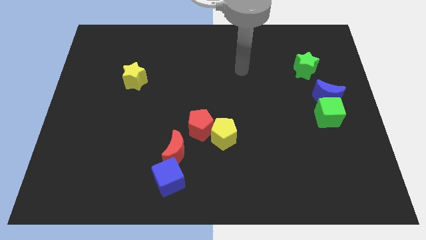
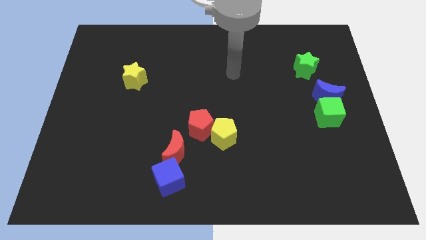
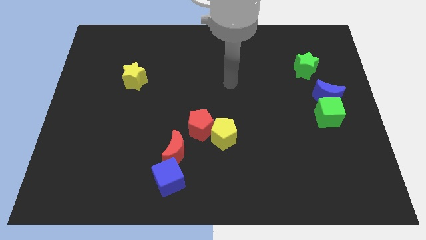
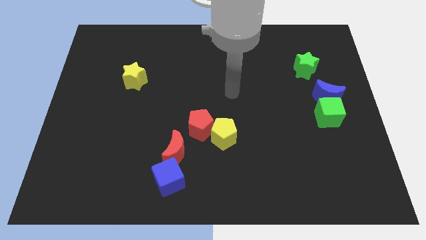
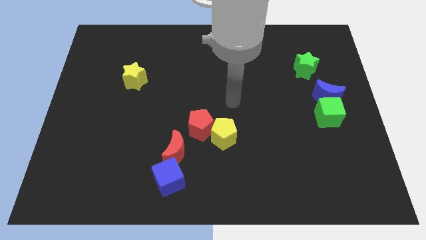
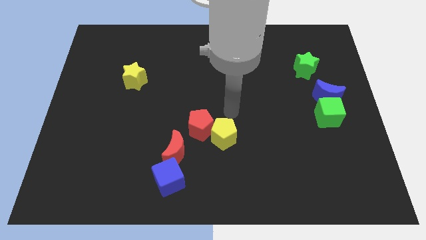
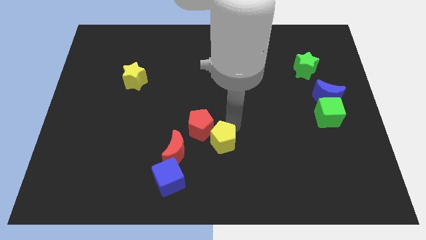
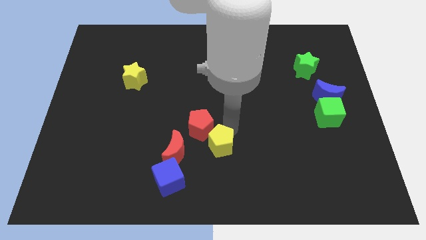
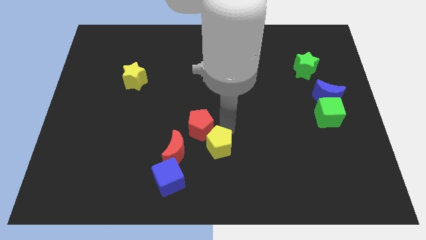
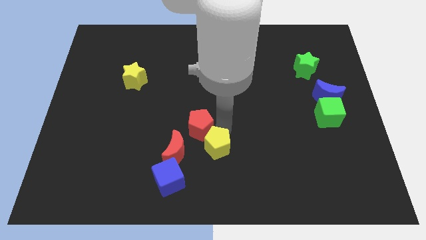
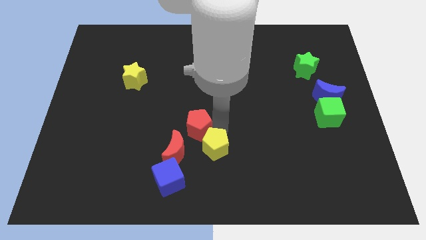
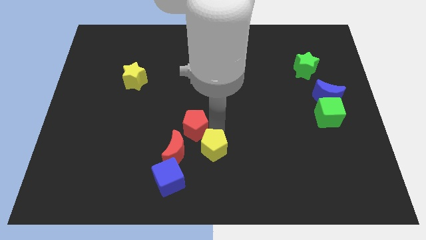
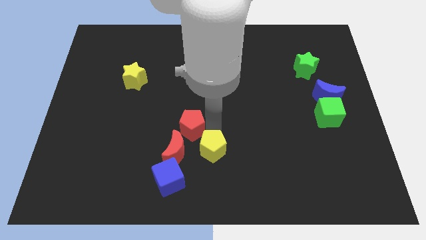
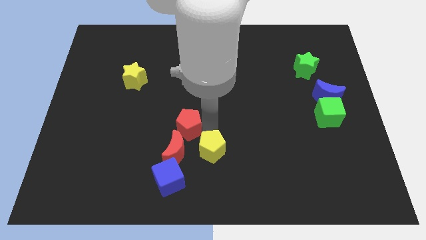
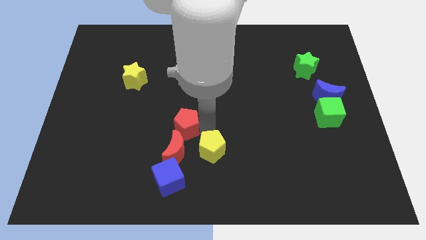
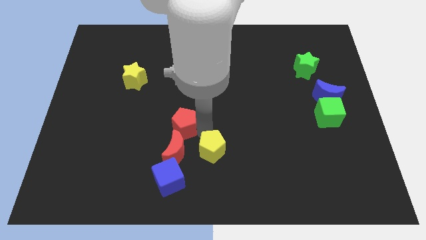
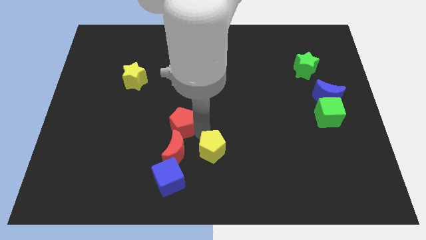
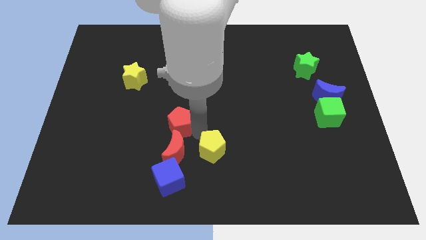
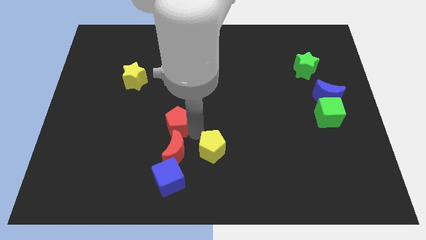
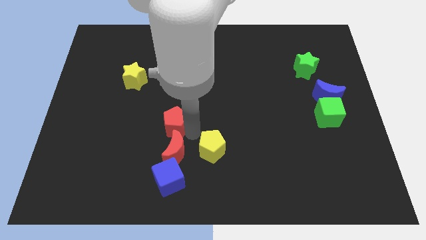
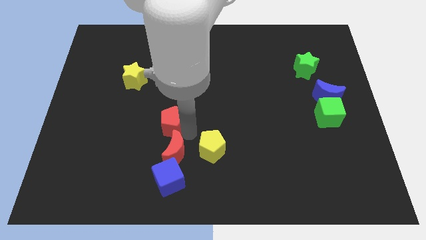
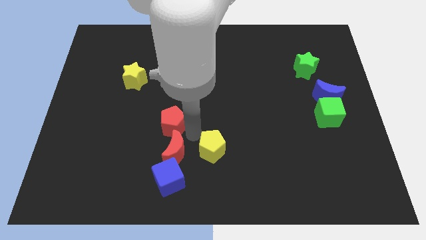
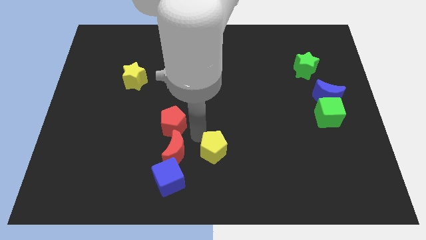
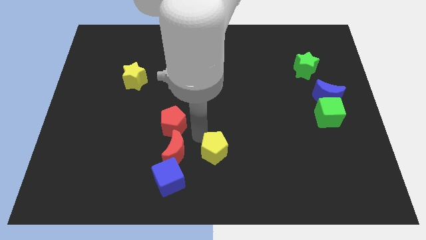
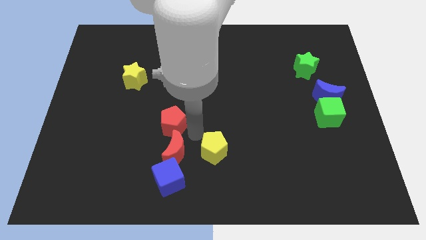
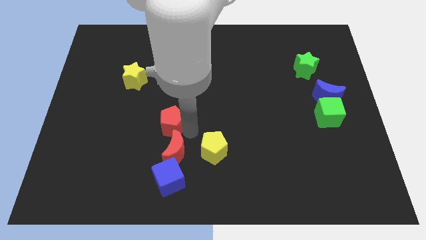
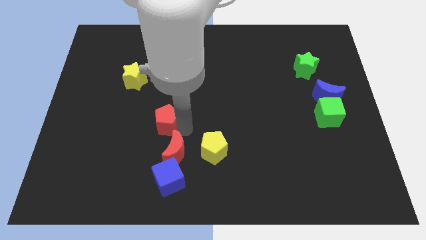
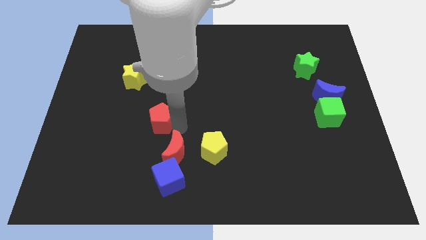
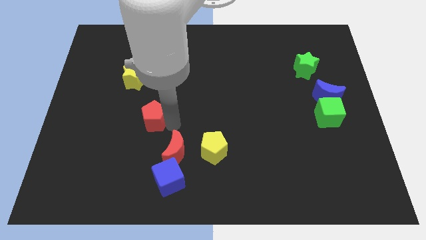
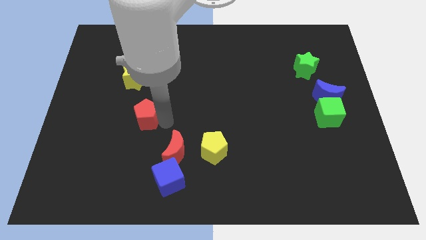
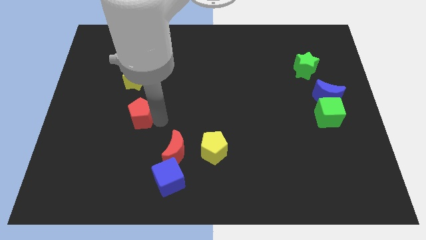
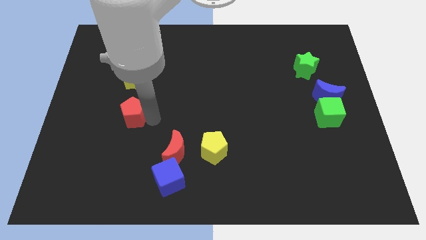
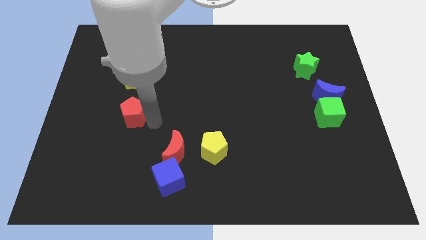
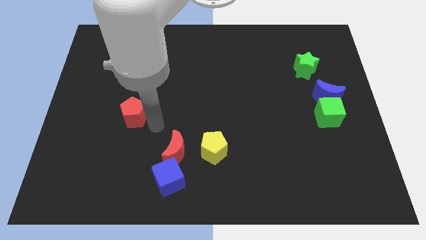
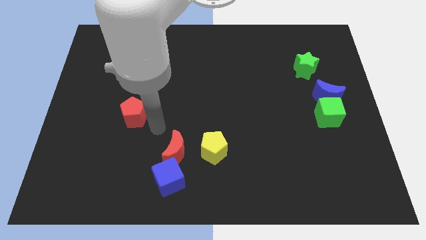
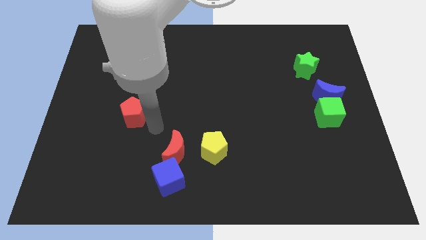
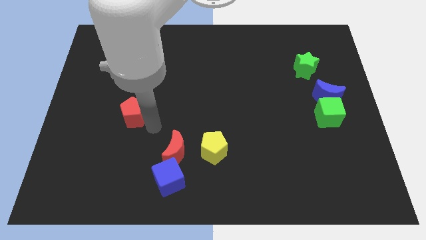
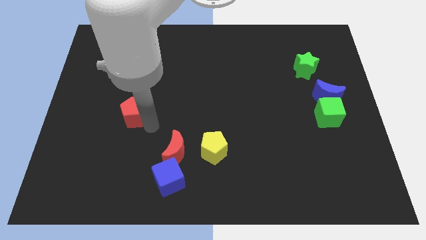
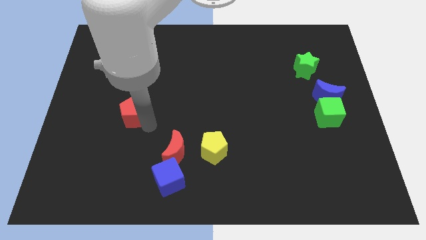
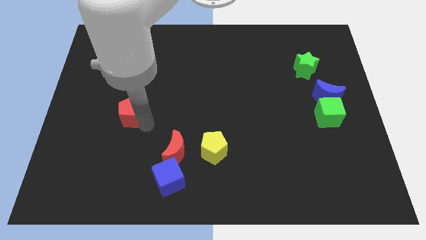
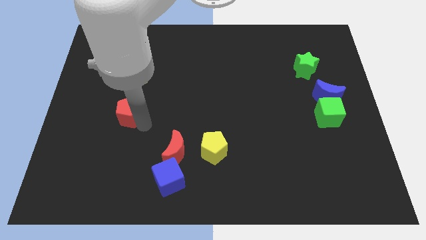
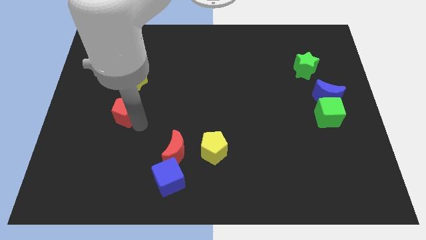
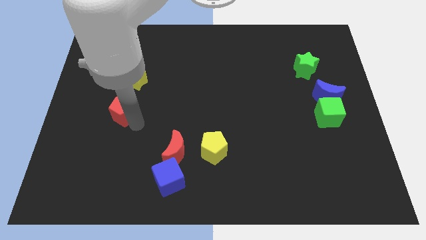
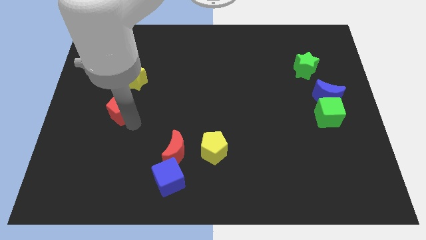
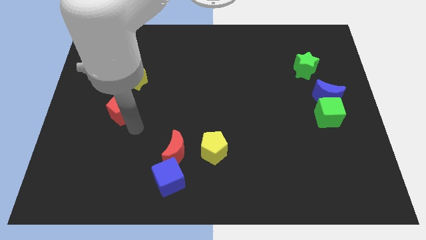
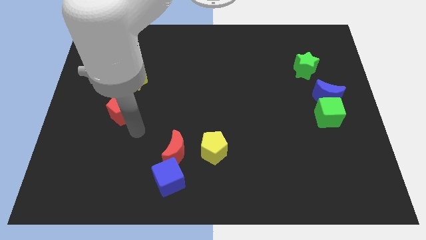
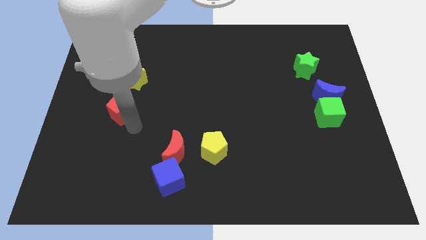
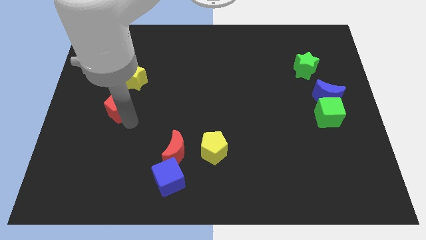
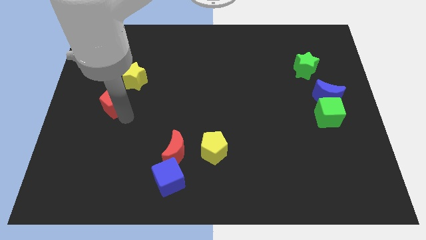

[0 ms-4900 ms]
put the red pentagon diagonally down and to the left of the yellow star

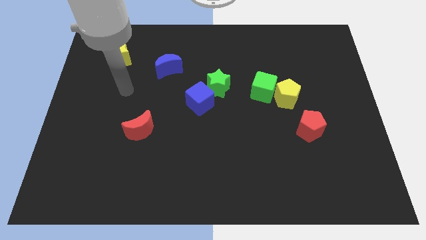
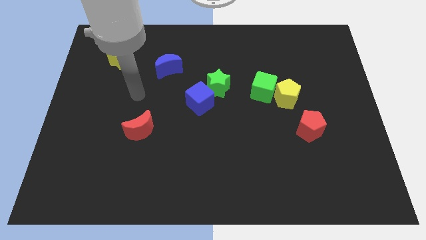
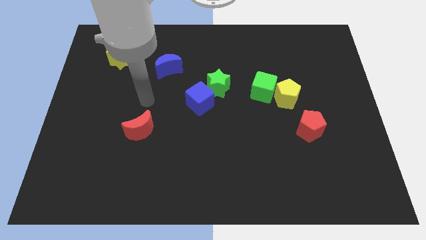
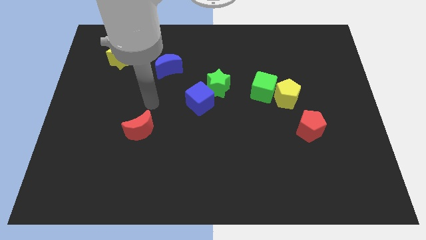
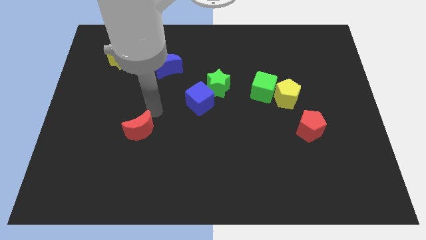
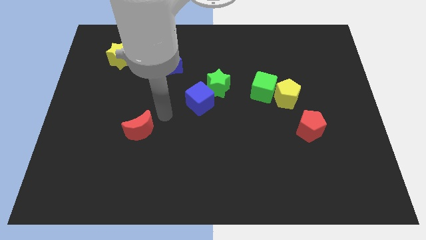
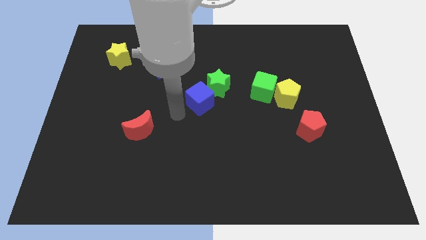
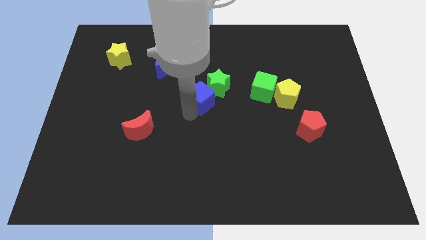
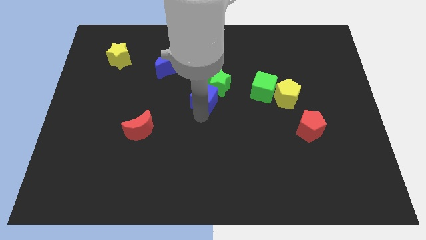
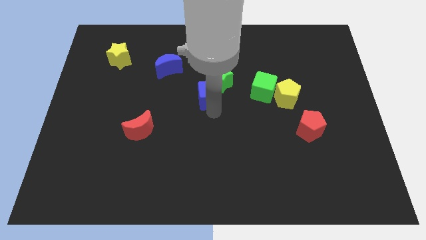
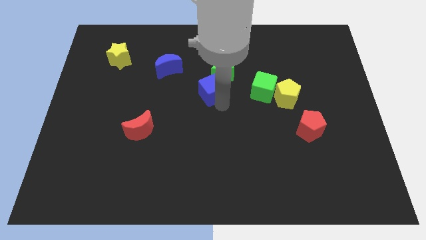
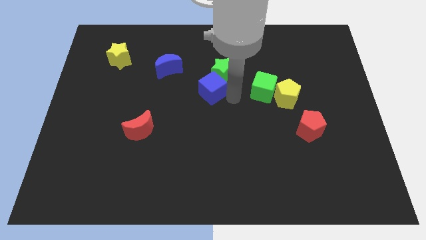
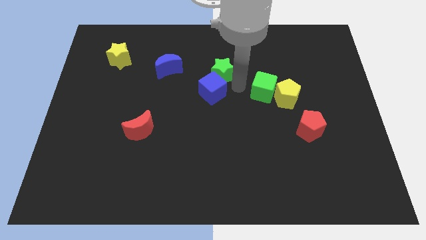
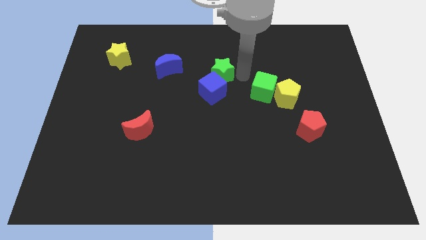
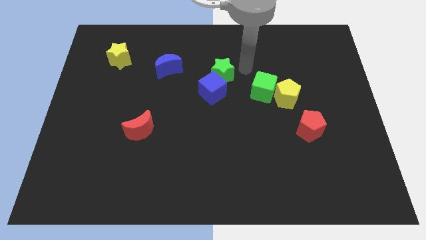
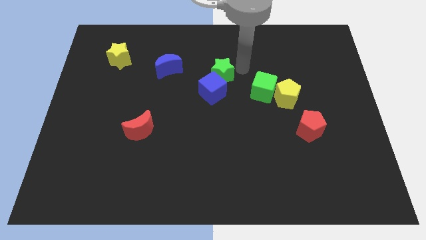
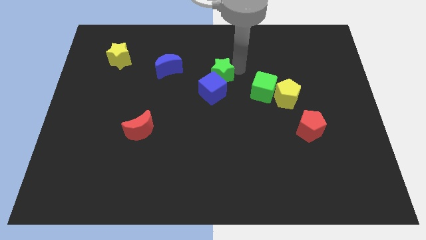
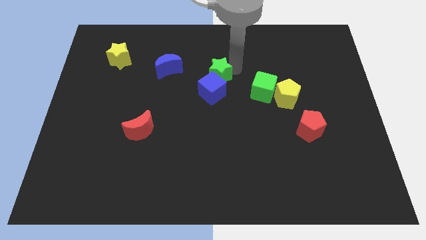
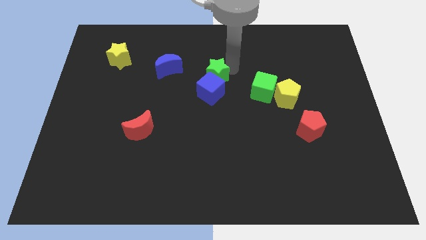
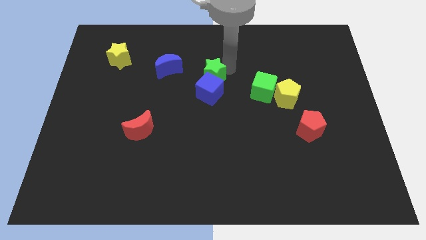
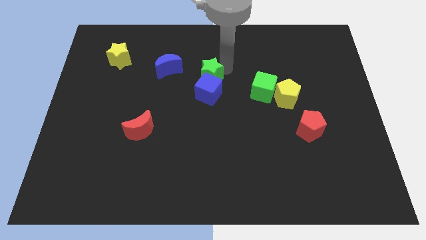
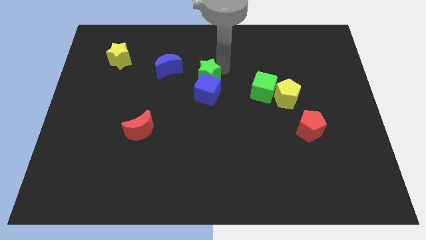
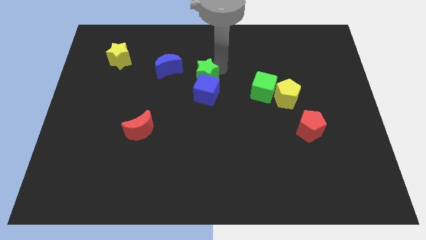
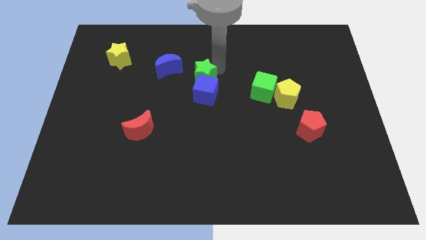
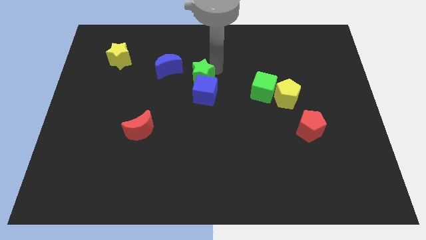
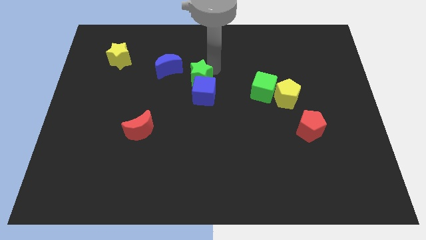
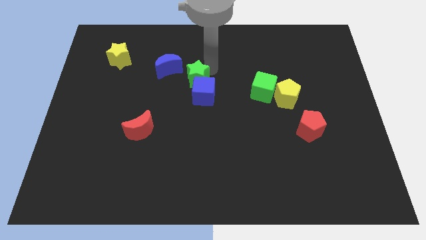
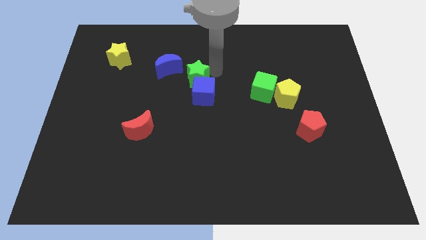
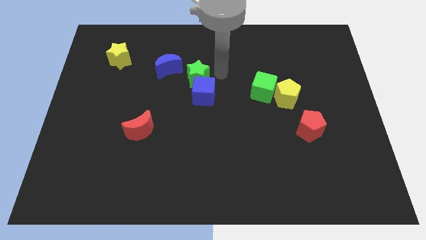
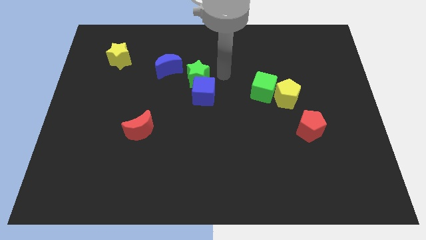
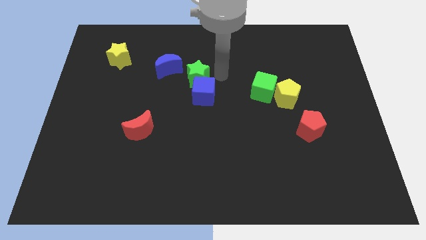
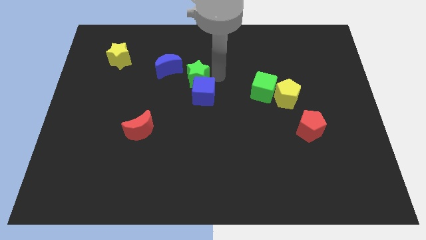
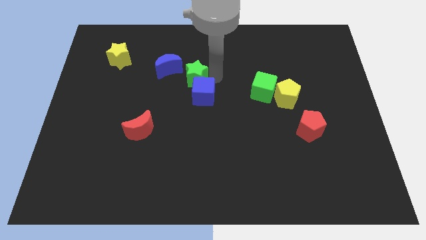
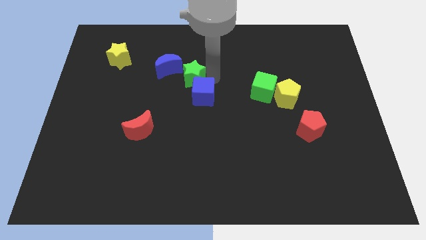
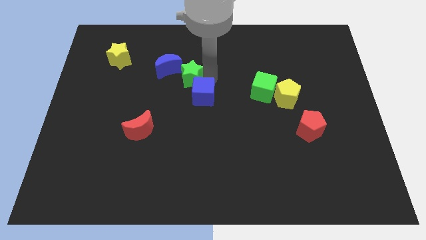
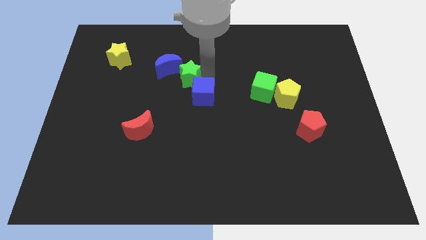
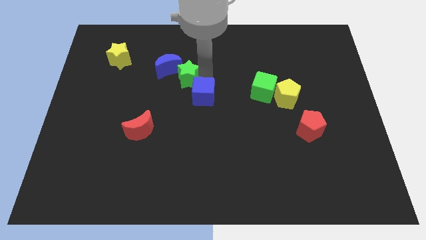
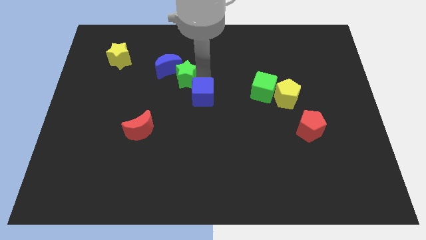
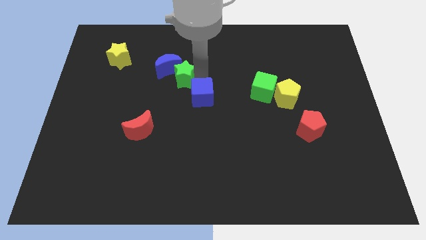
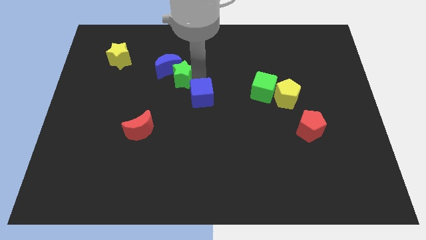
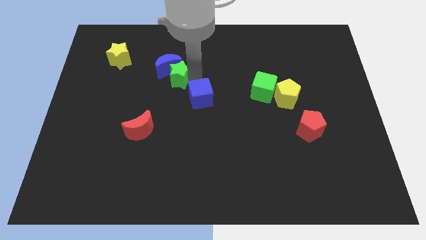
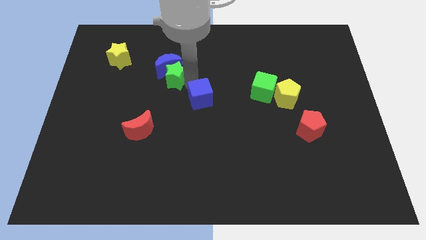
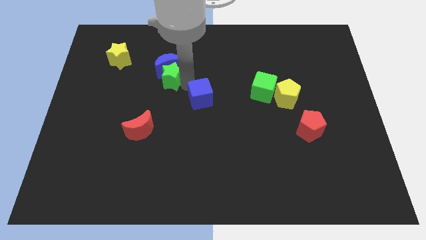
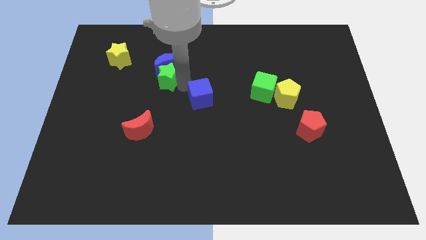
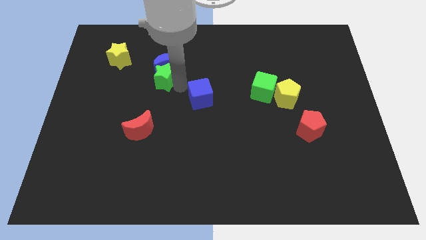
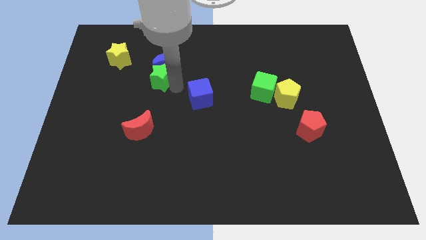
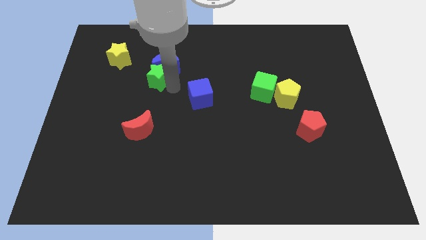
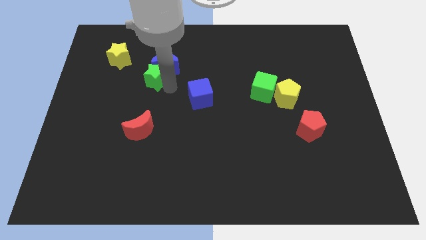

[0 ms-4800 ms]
put the green star to the bottom right side of the yellow star
